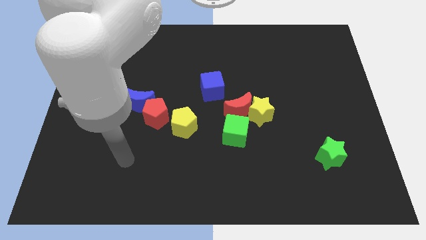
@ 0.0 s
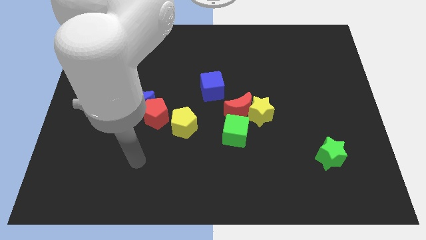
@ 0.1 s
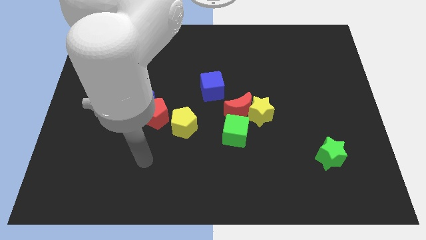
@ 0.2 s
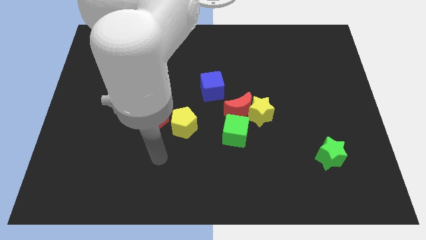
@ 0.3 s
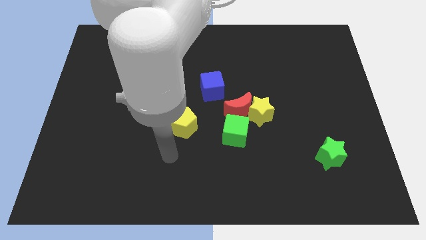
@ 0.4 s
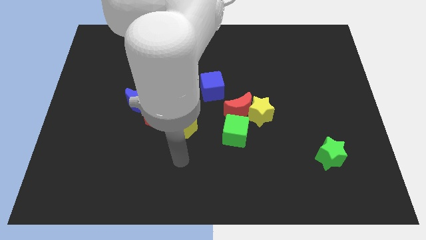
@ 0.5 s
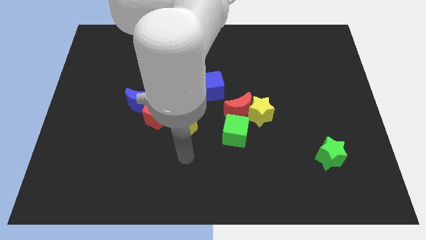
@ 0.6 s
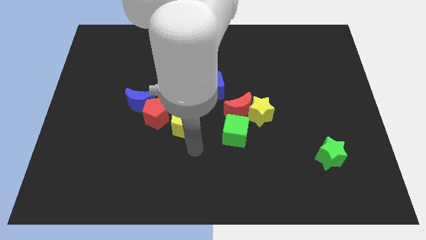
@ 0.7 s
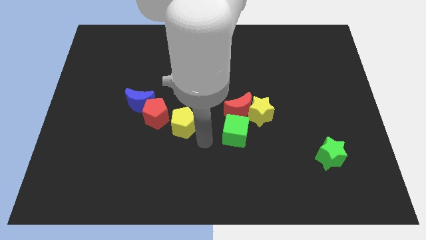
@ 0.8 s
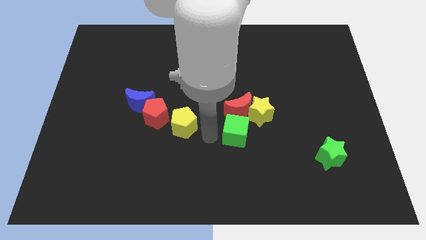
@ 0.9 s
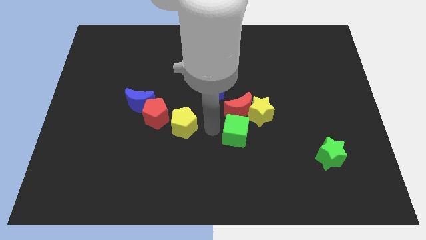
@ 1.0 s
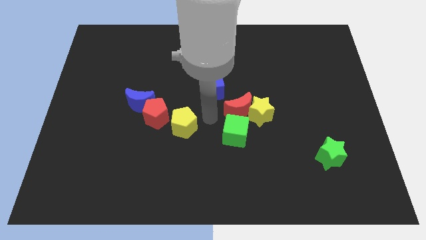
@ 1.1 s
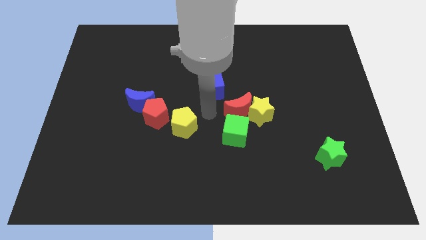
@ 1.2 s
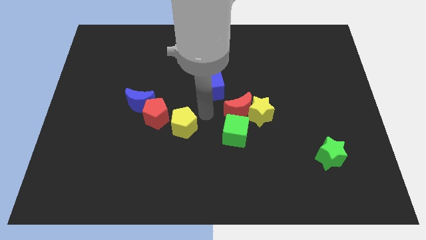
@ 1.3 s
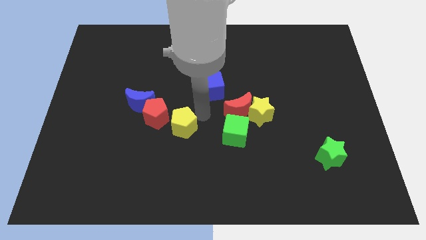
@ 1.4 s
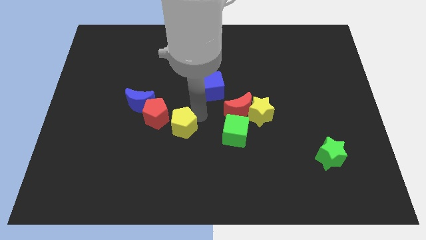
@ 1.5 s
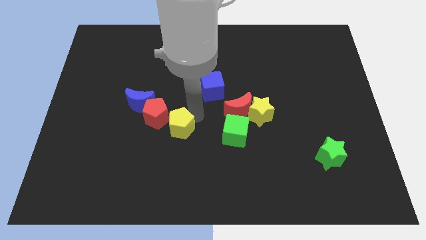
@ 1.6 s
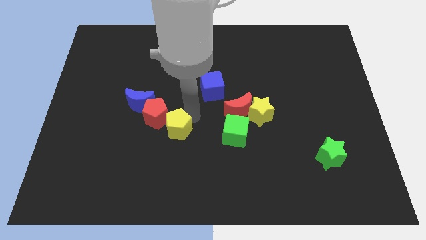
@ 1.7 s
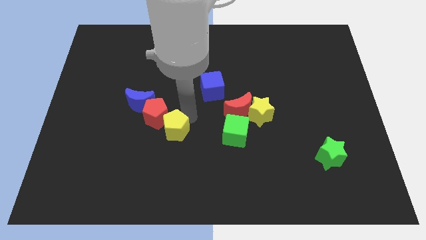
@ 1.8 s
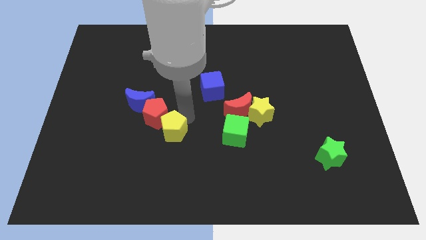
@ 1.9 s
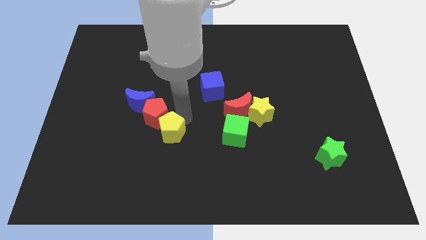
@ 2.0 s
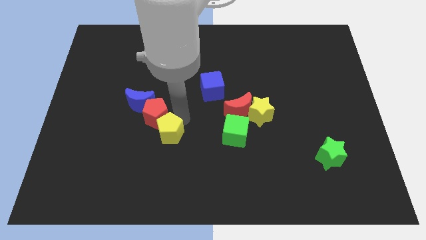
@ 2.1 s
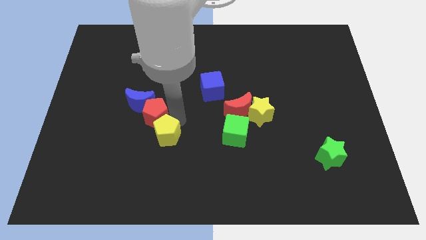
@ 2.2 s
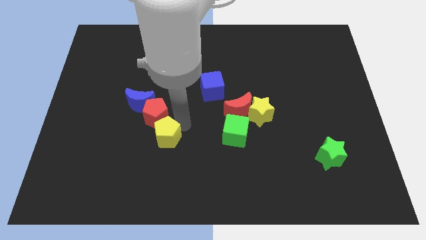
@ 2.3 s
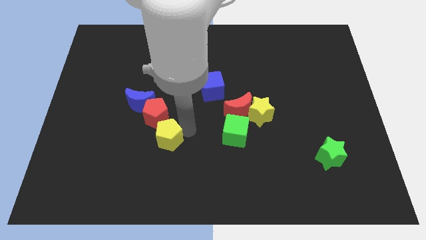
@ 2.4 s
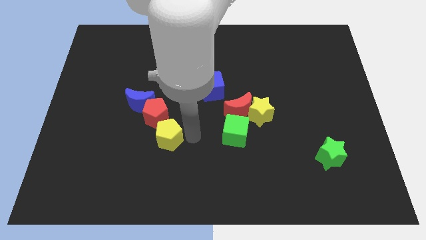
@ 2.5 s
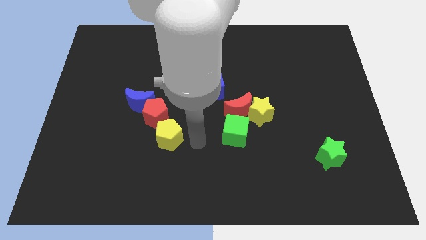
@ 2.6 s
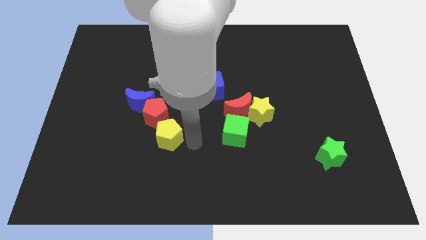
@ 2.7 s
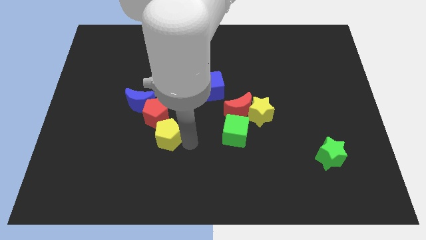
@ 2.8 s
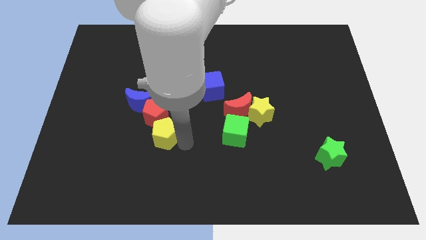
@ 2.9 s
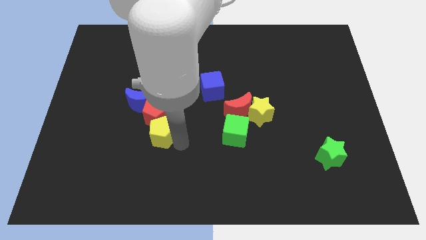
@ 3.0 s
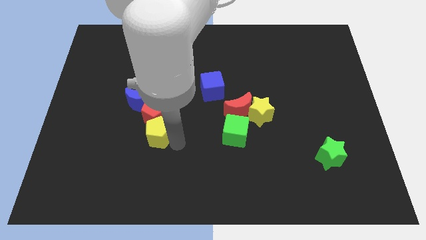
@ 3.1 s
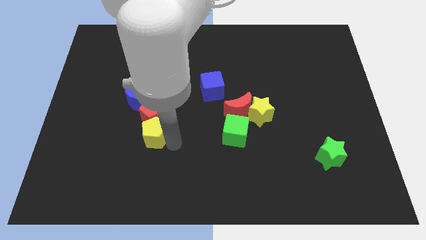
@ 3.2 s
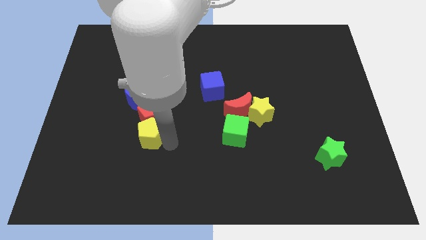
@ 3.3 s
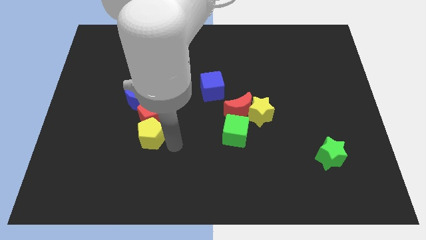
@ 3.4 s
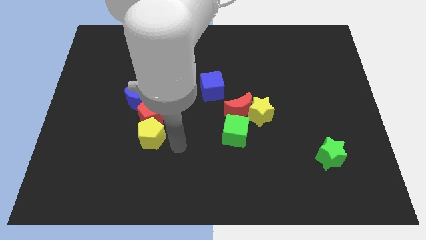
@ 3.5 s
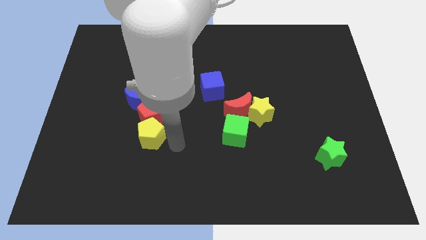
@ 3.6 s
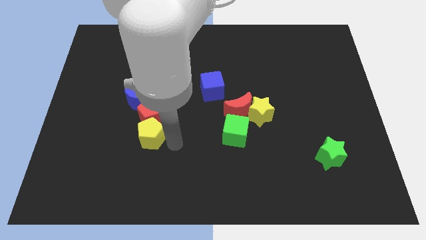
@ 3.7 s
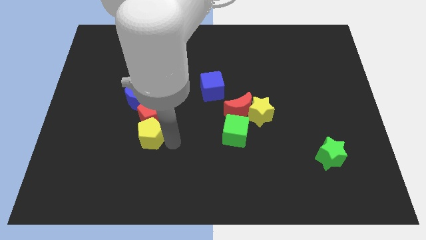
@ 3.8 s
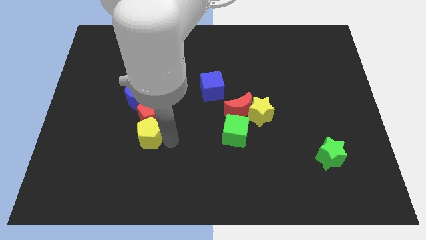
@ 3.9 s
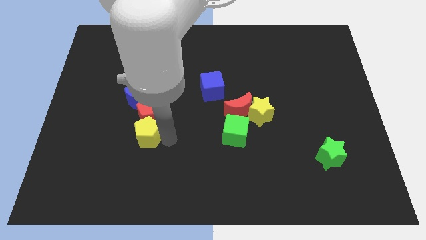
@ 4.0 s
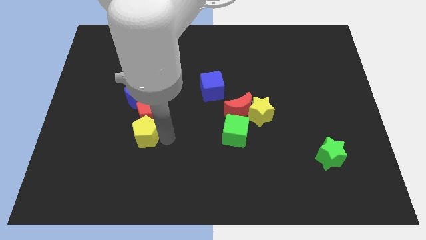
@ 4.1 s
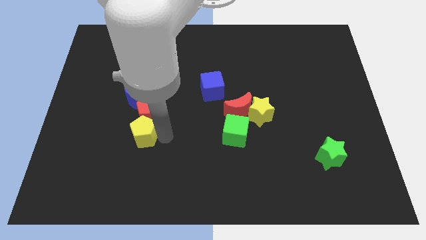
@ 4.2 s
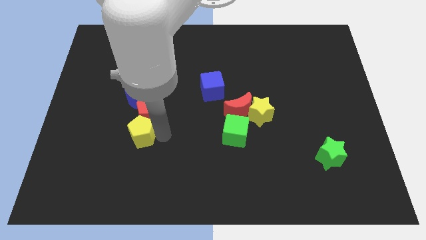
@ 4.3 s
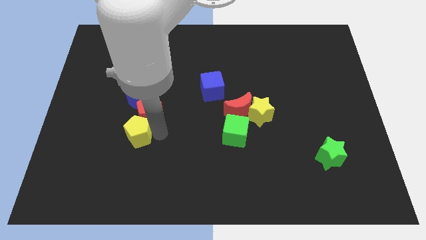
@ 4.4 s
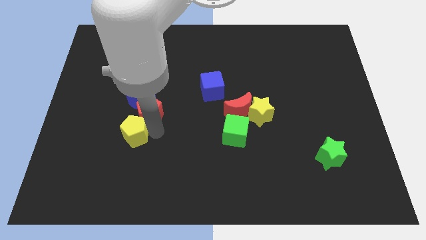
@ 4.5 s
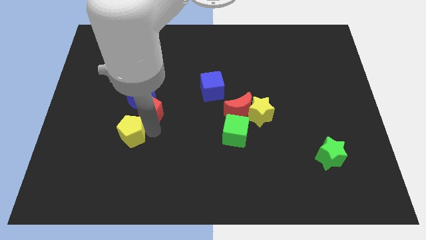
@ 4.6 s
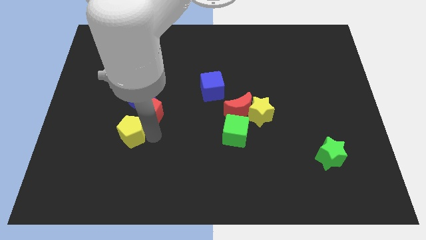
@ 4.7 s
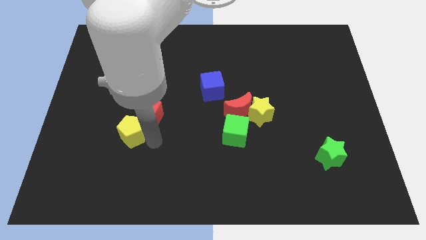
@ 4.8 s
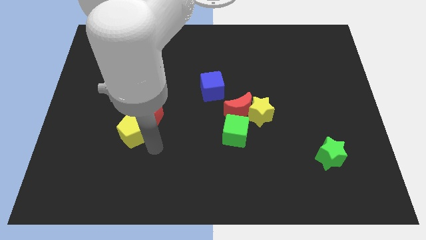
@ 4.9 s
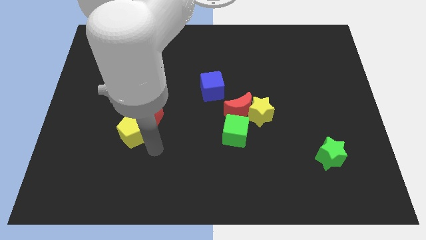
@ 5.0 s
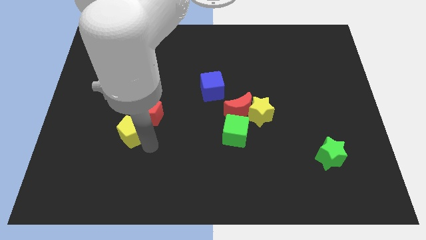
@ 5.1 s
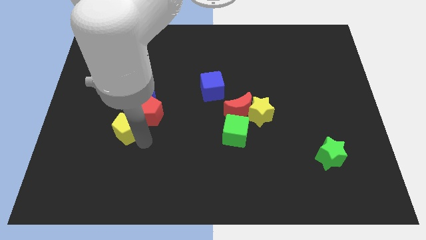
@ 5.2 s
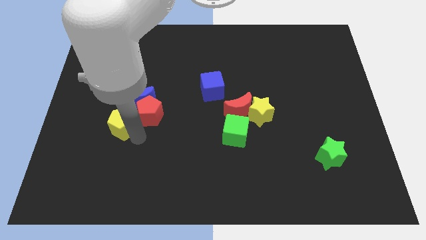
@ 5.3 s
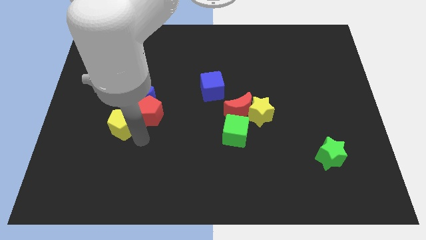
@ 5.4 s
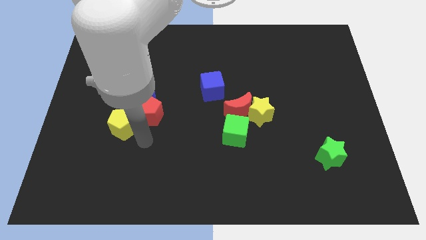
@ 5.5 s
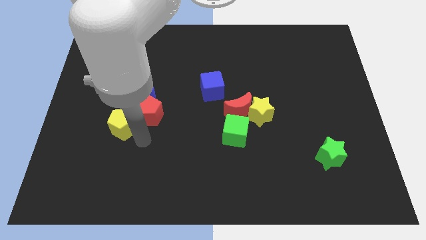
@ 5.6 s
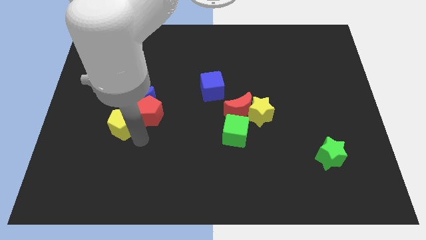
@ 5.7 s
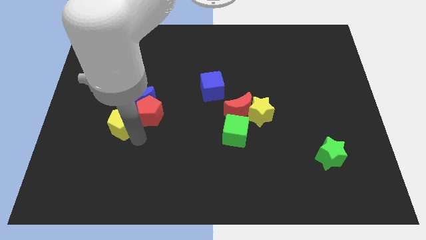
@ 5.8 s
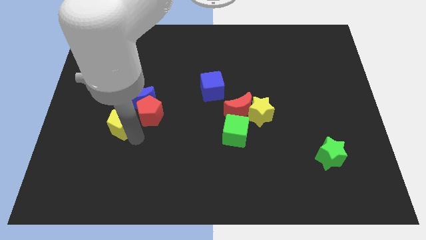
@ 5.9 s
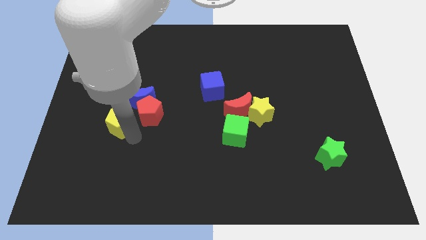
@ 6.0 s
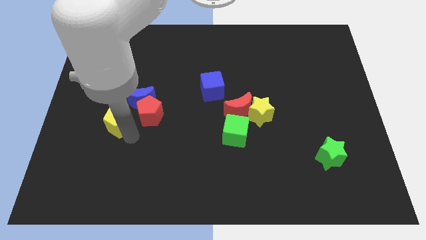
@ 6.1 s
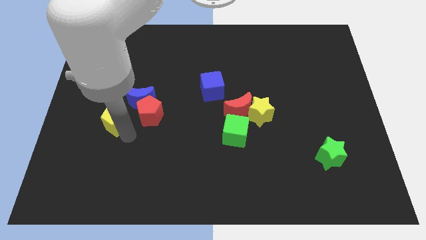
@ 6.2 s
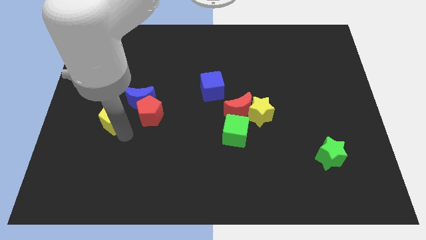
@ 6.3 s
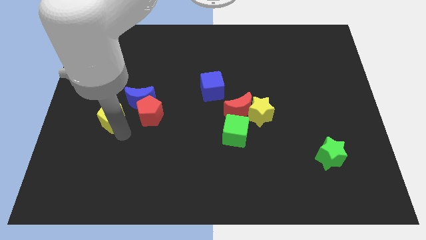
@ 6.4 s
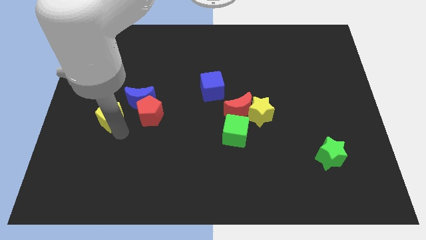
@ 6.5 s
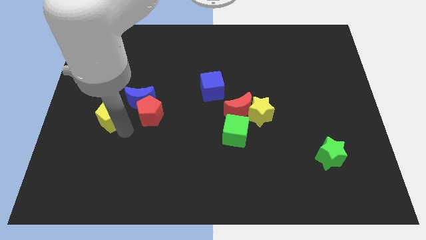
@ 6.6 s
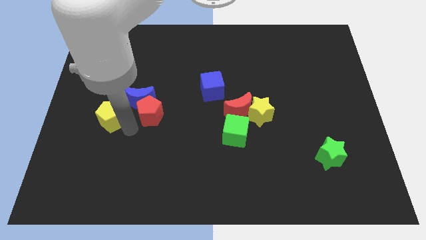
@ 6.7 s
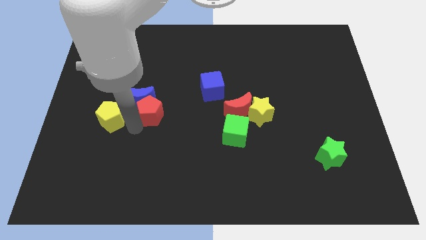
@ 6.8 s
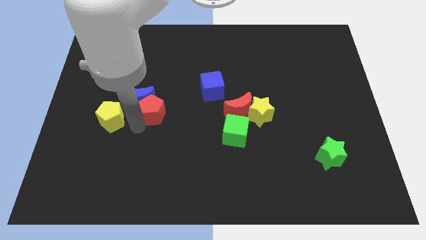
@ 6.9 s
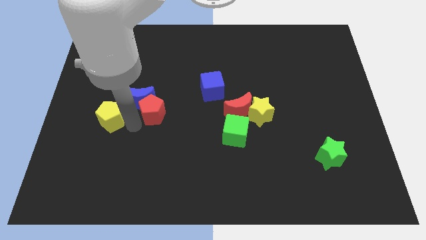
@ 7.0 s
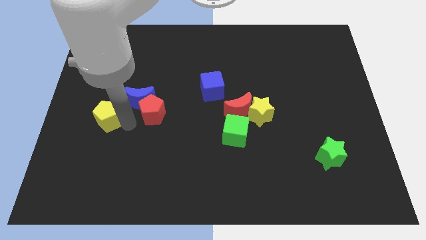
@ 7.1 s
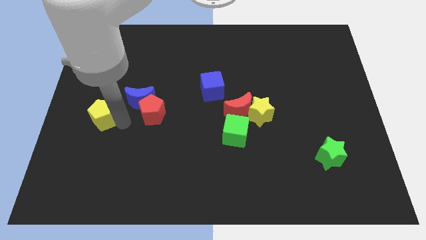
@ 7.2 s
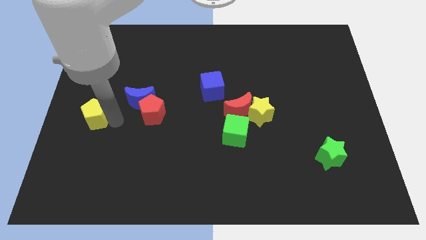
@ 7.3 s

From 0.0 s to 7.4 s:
put the yellow pentagon to the center left
